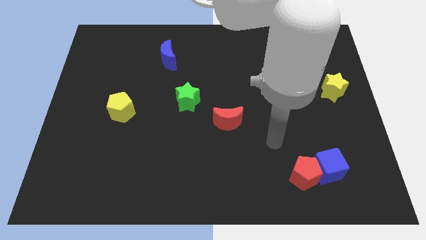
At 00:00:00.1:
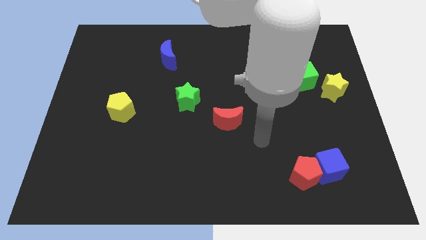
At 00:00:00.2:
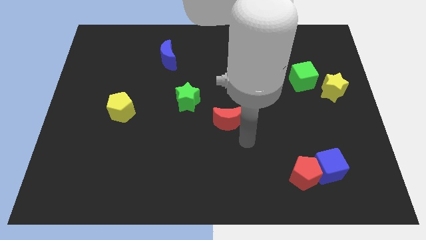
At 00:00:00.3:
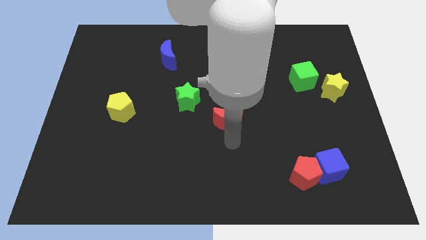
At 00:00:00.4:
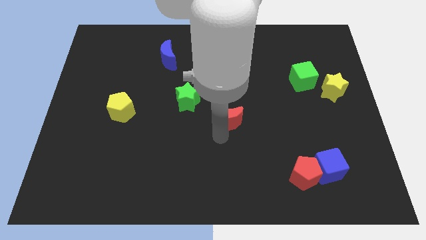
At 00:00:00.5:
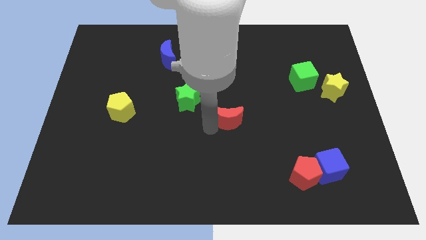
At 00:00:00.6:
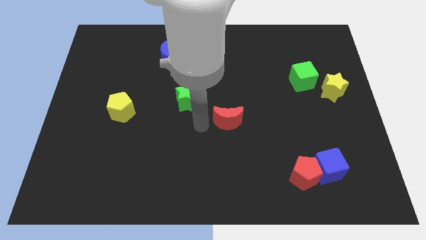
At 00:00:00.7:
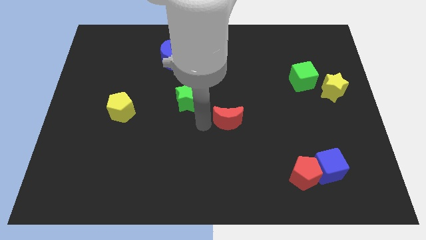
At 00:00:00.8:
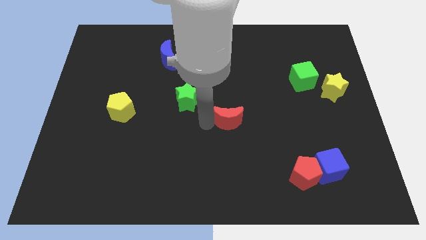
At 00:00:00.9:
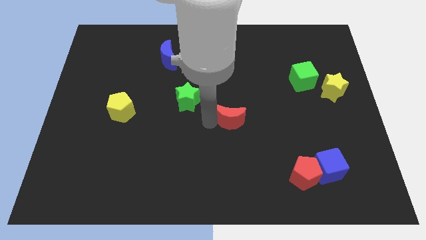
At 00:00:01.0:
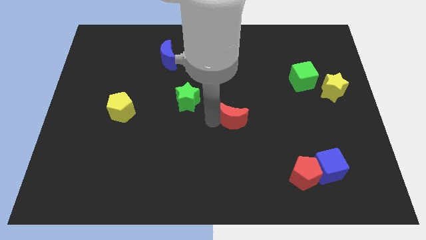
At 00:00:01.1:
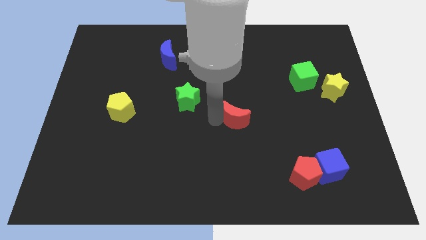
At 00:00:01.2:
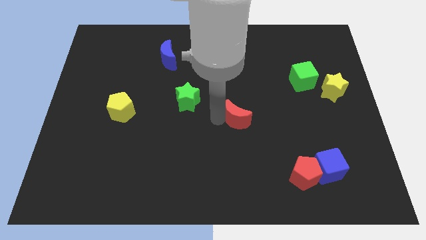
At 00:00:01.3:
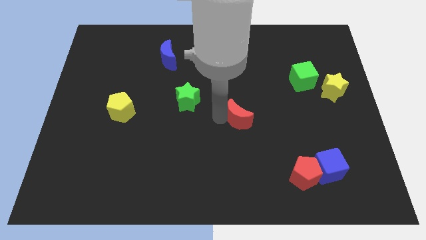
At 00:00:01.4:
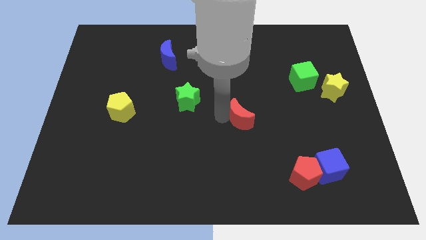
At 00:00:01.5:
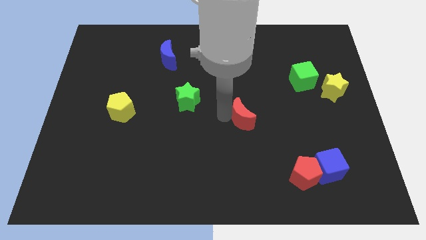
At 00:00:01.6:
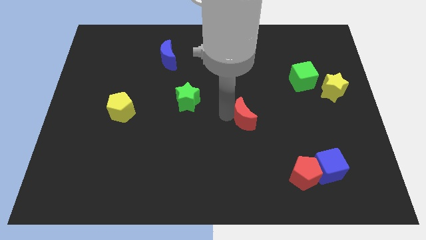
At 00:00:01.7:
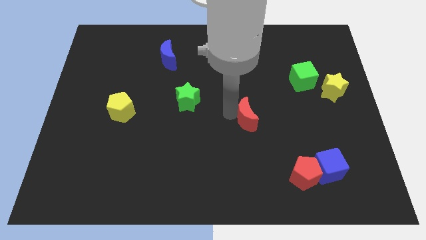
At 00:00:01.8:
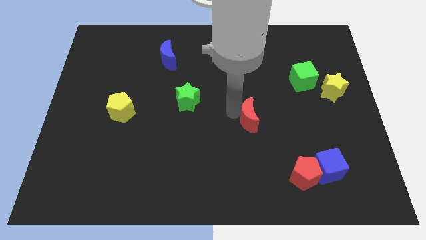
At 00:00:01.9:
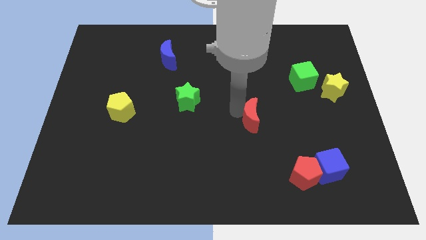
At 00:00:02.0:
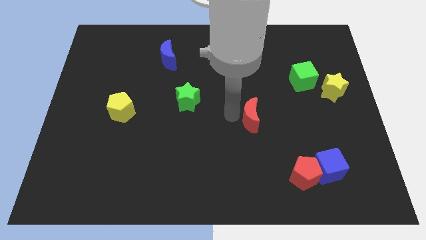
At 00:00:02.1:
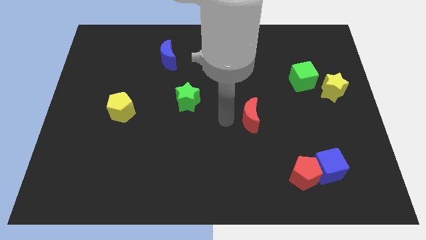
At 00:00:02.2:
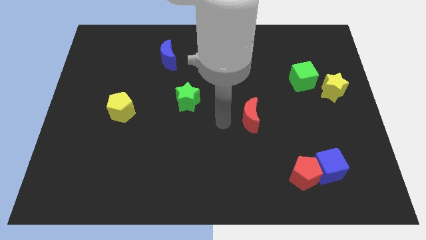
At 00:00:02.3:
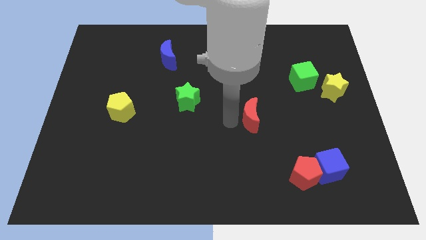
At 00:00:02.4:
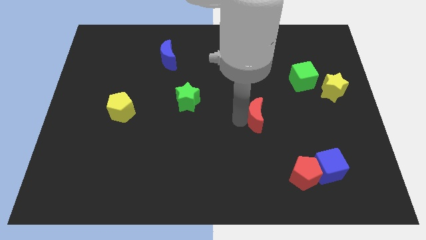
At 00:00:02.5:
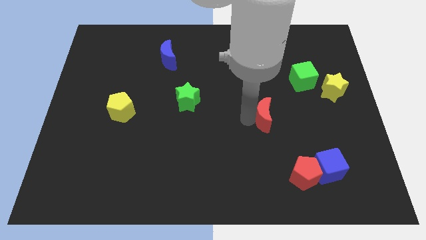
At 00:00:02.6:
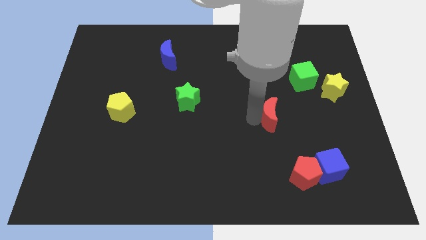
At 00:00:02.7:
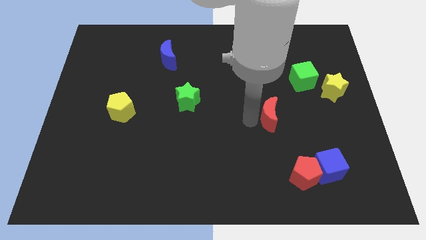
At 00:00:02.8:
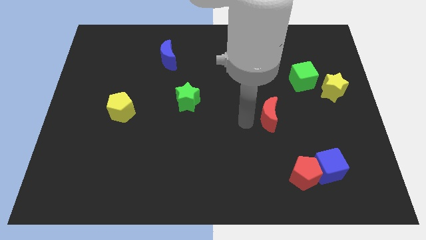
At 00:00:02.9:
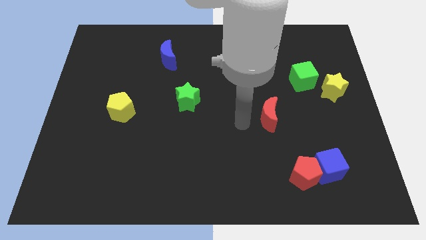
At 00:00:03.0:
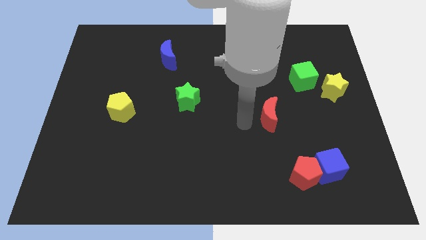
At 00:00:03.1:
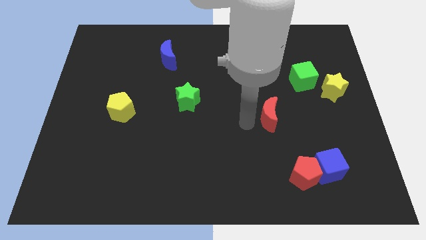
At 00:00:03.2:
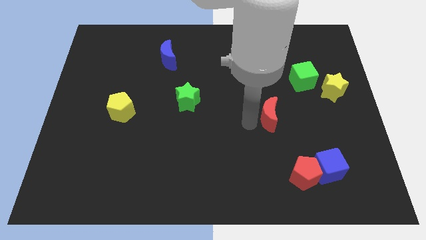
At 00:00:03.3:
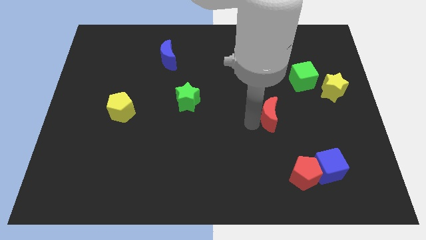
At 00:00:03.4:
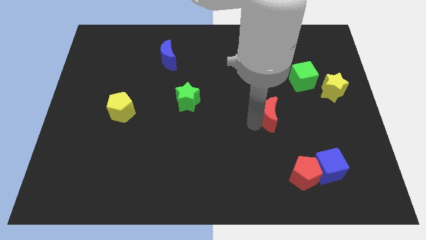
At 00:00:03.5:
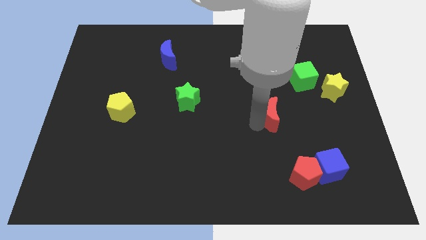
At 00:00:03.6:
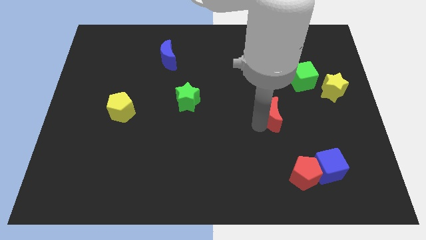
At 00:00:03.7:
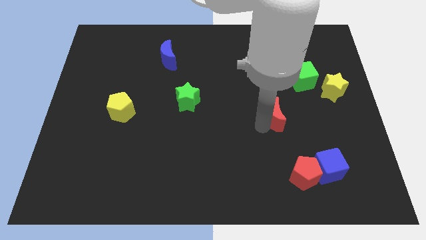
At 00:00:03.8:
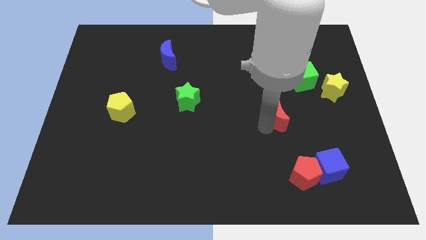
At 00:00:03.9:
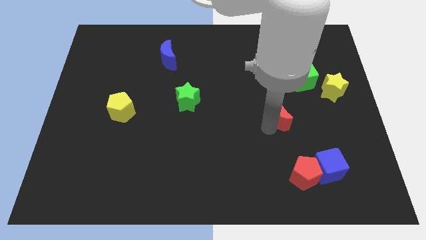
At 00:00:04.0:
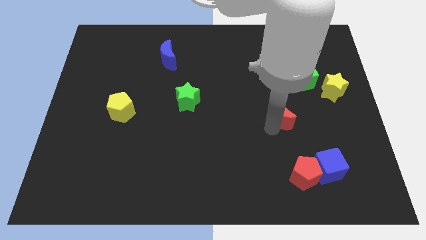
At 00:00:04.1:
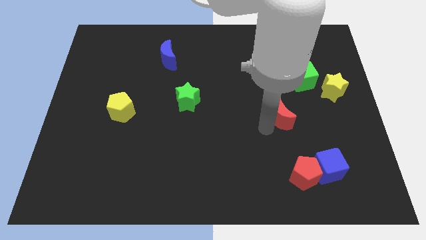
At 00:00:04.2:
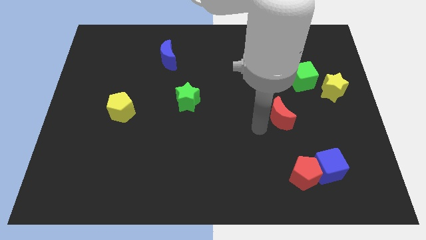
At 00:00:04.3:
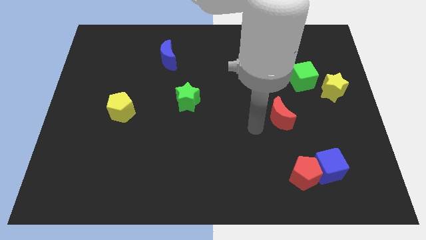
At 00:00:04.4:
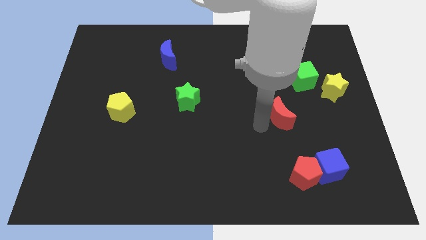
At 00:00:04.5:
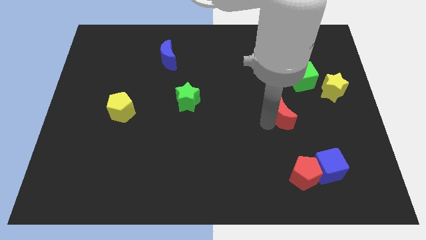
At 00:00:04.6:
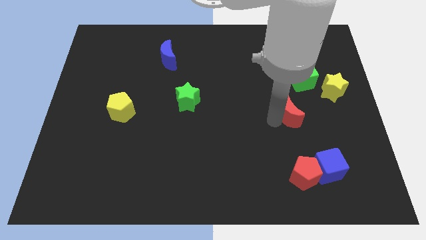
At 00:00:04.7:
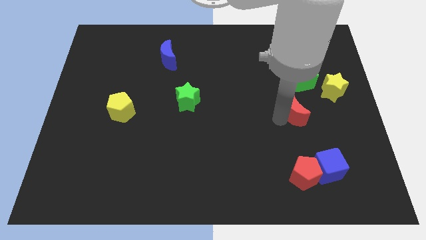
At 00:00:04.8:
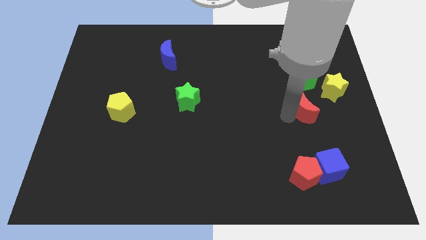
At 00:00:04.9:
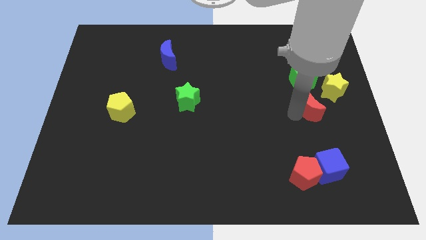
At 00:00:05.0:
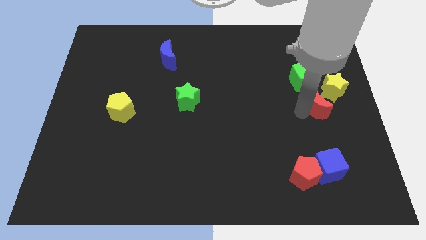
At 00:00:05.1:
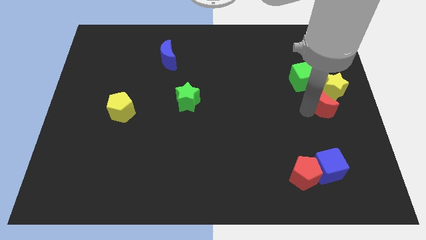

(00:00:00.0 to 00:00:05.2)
slide the red moon to the right side

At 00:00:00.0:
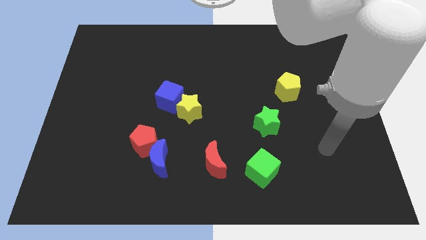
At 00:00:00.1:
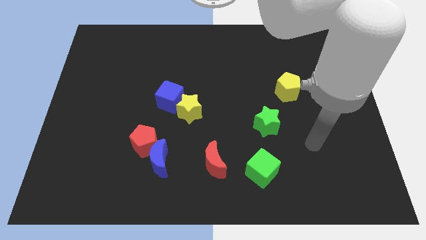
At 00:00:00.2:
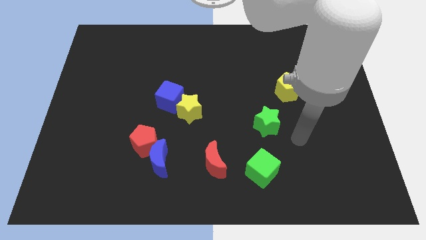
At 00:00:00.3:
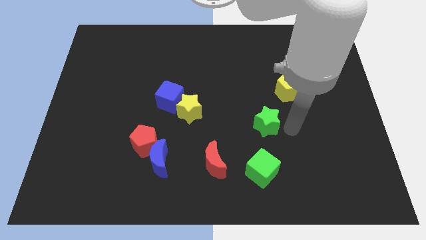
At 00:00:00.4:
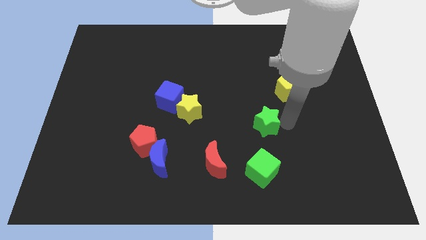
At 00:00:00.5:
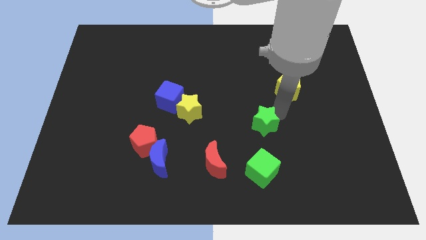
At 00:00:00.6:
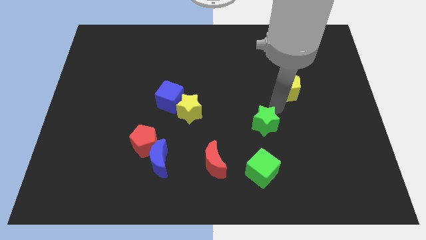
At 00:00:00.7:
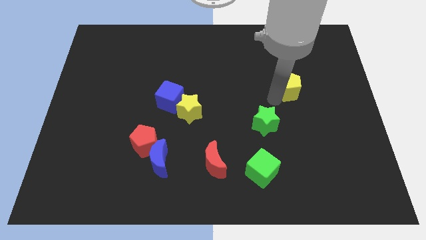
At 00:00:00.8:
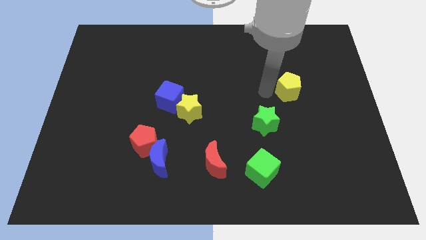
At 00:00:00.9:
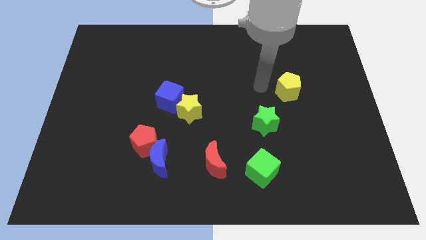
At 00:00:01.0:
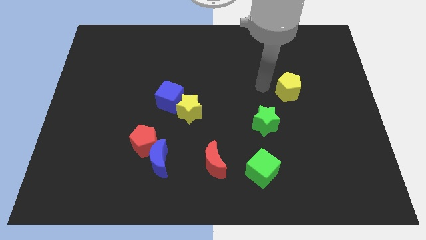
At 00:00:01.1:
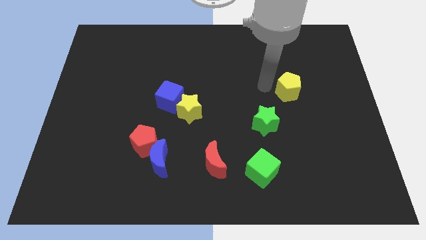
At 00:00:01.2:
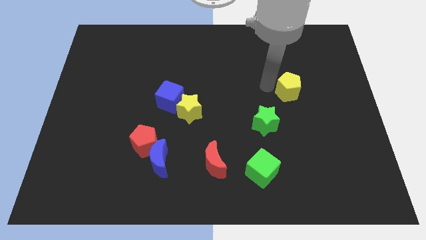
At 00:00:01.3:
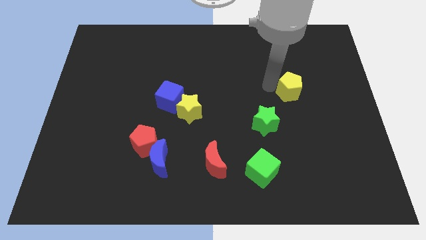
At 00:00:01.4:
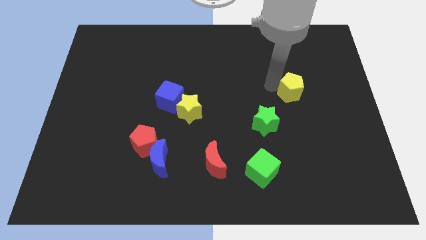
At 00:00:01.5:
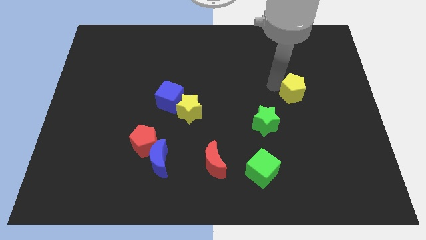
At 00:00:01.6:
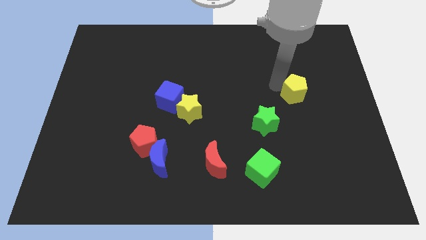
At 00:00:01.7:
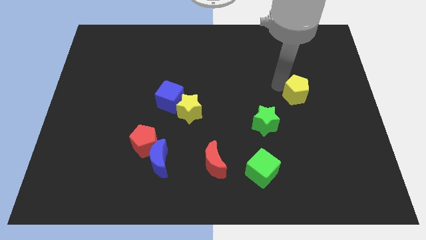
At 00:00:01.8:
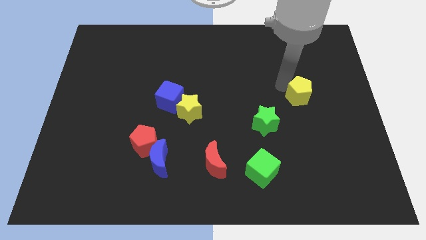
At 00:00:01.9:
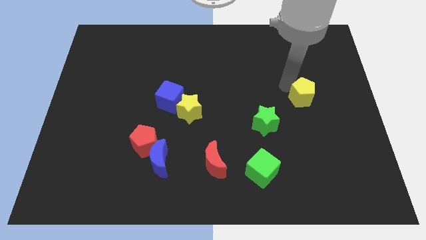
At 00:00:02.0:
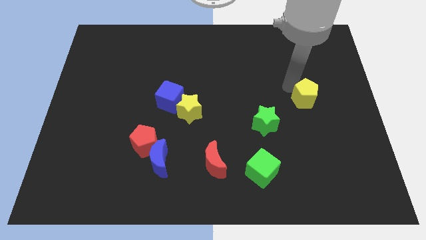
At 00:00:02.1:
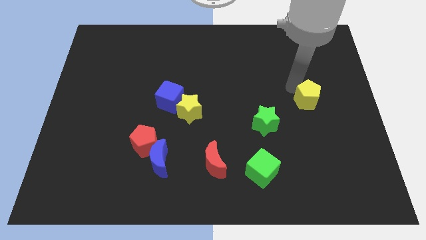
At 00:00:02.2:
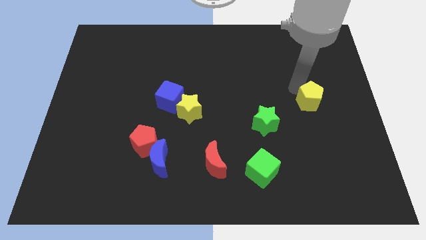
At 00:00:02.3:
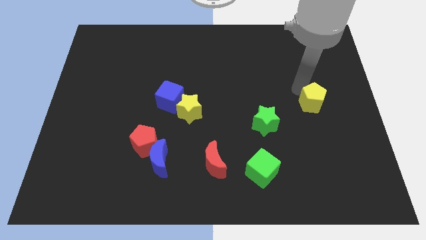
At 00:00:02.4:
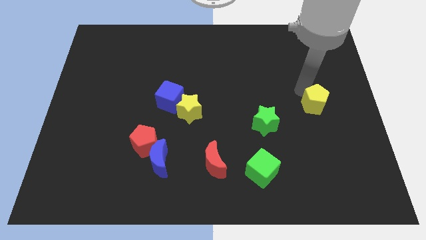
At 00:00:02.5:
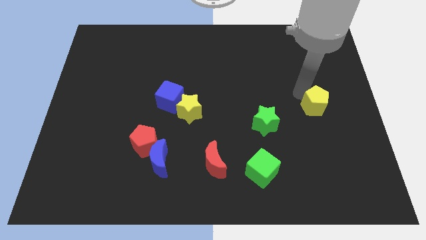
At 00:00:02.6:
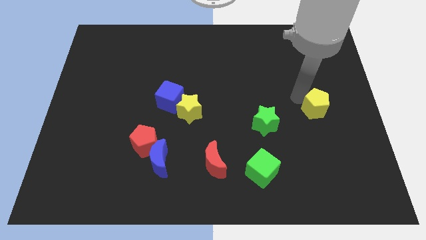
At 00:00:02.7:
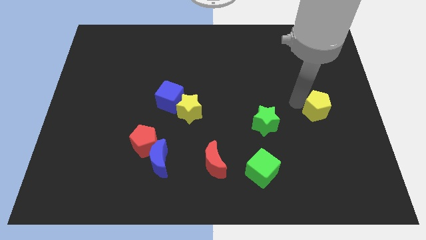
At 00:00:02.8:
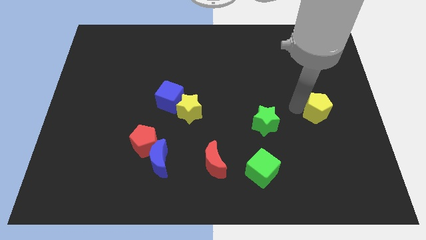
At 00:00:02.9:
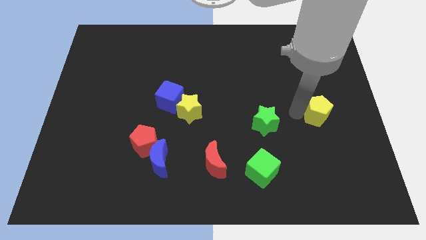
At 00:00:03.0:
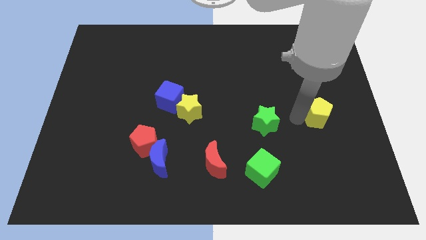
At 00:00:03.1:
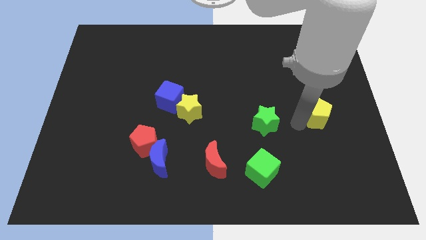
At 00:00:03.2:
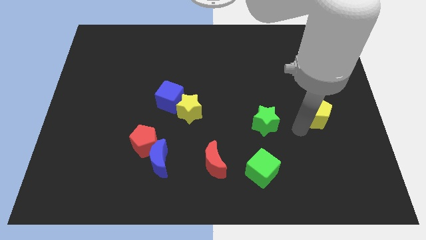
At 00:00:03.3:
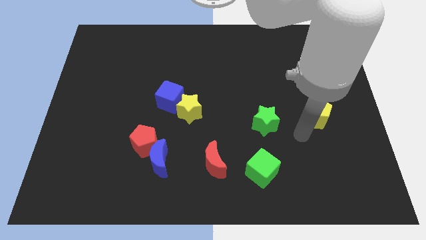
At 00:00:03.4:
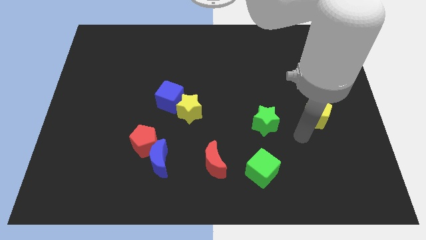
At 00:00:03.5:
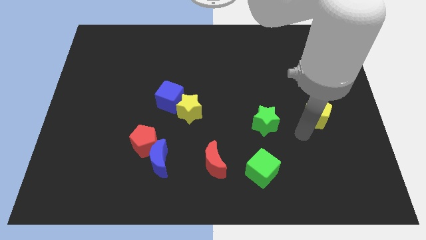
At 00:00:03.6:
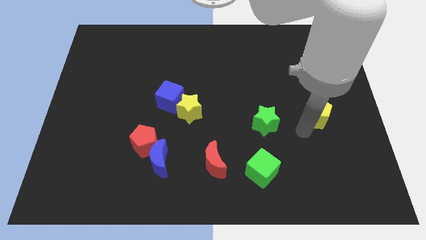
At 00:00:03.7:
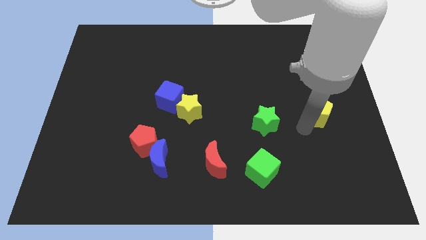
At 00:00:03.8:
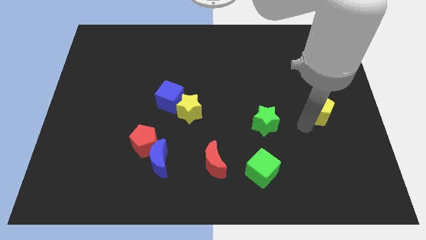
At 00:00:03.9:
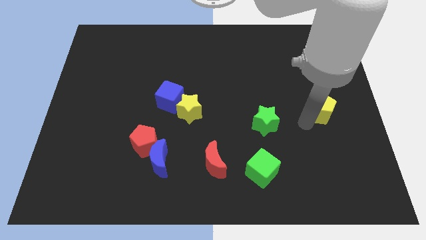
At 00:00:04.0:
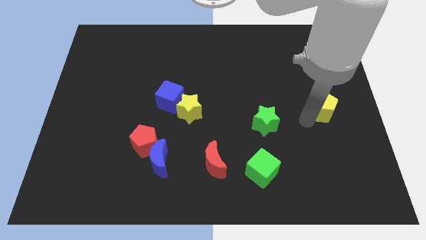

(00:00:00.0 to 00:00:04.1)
slide the yellow pentagon to the center right
